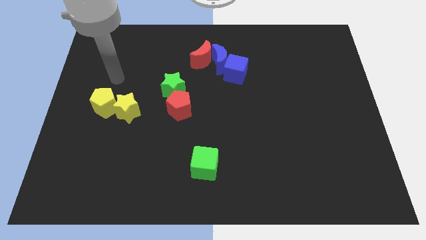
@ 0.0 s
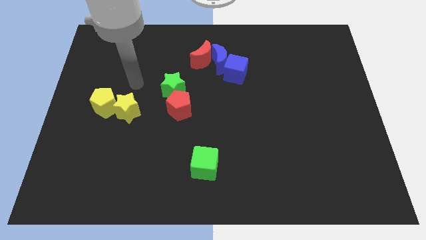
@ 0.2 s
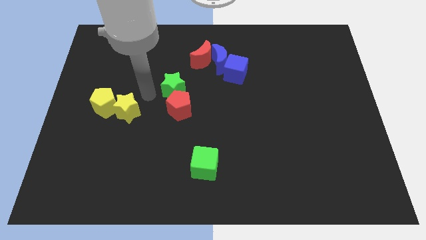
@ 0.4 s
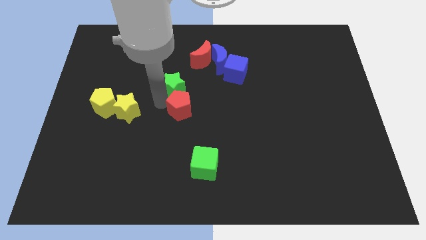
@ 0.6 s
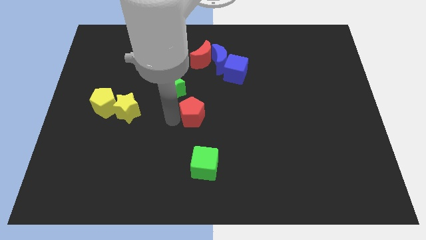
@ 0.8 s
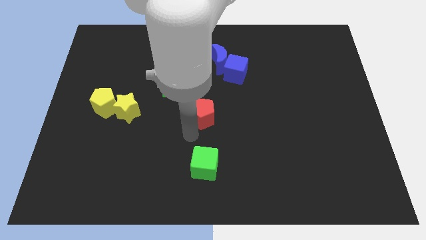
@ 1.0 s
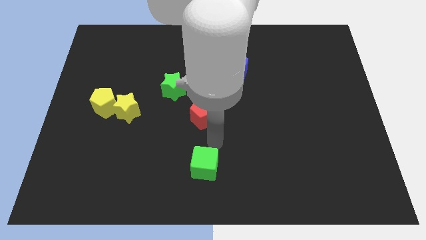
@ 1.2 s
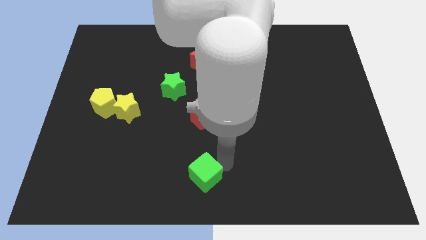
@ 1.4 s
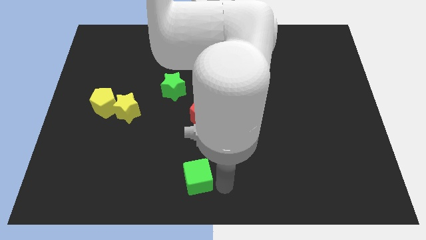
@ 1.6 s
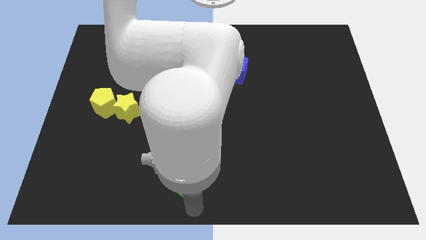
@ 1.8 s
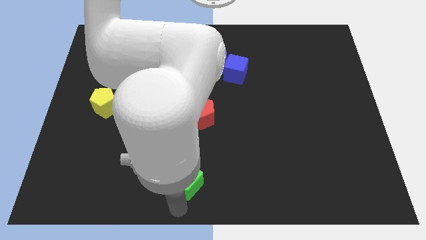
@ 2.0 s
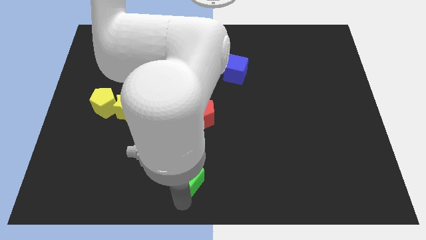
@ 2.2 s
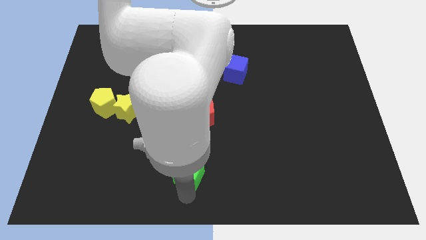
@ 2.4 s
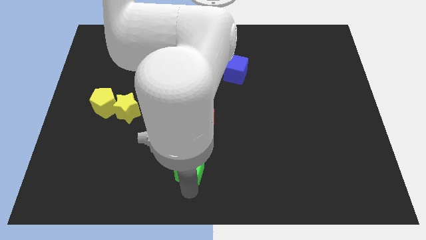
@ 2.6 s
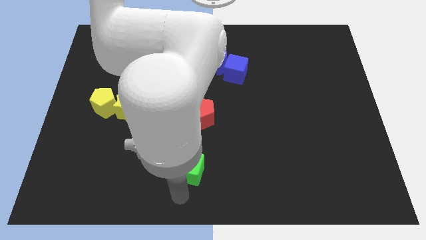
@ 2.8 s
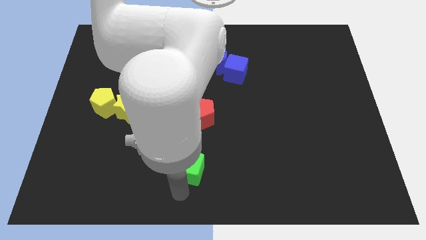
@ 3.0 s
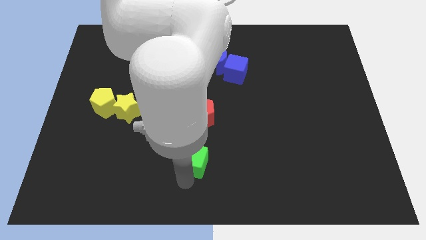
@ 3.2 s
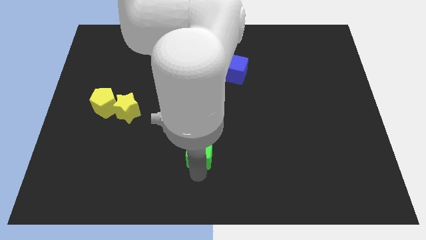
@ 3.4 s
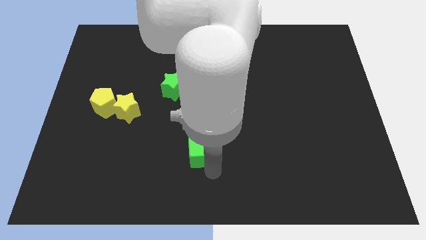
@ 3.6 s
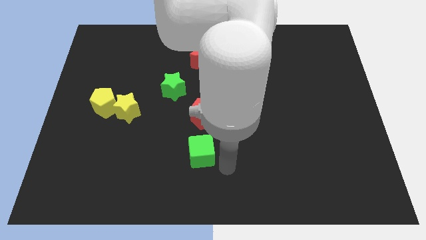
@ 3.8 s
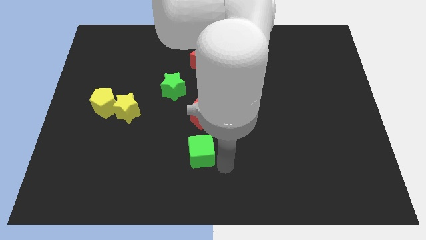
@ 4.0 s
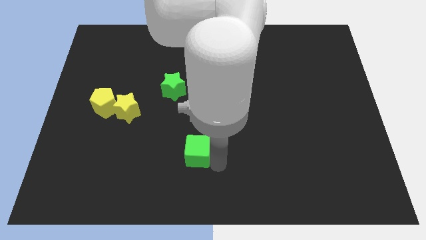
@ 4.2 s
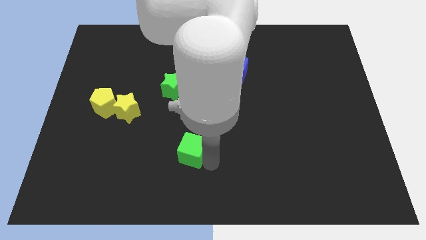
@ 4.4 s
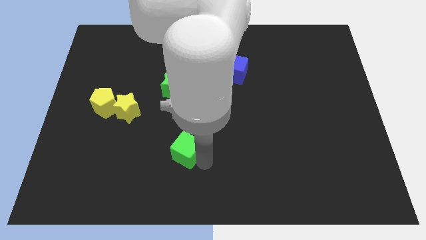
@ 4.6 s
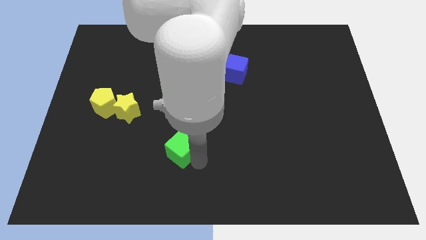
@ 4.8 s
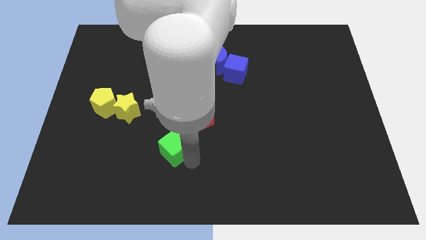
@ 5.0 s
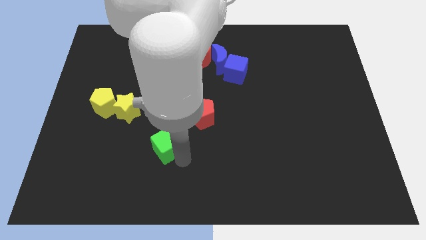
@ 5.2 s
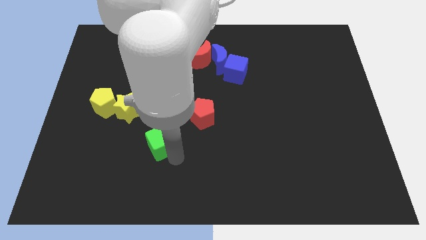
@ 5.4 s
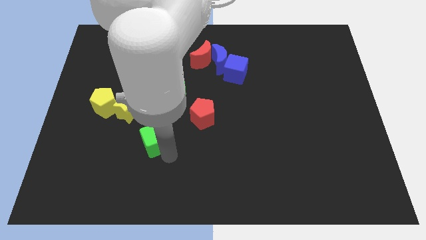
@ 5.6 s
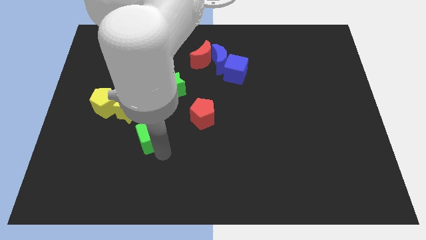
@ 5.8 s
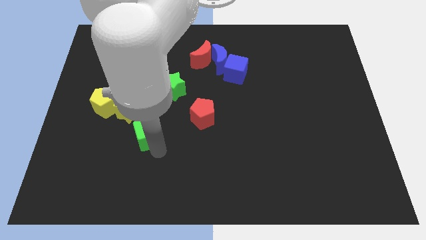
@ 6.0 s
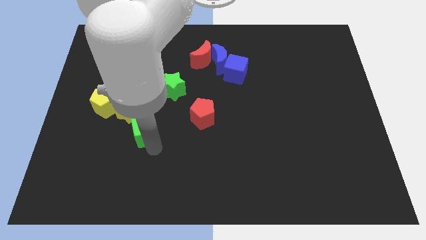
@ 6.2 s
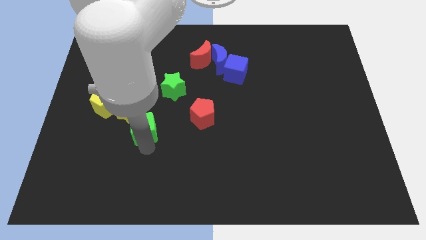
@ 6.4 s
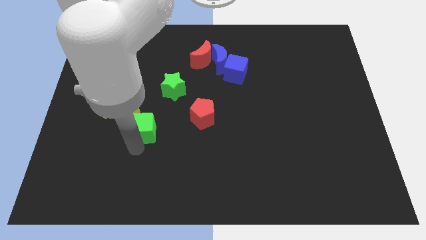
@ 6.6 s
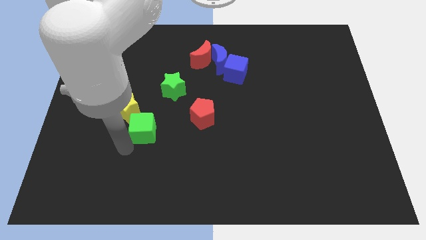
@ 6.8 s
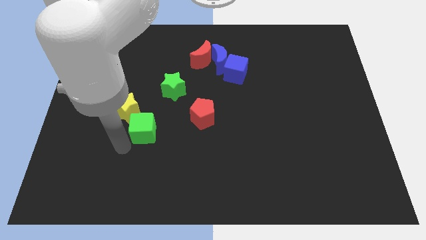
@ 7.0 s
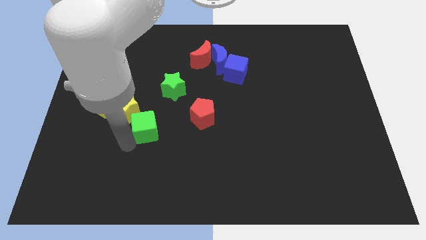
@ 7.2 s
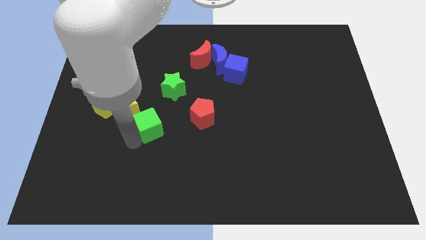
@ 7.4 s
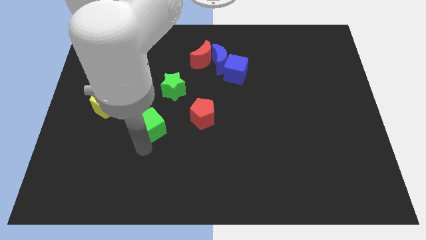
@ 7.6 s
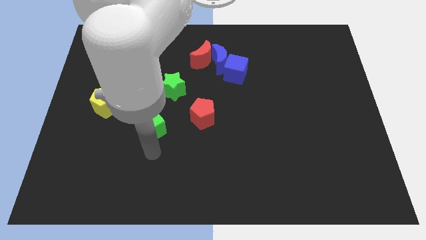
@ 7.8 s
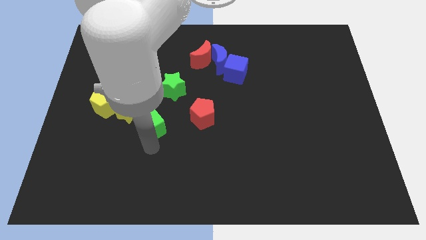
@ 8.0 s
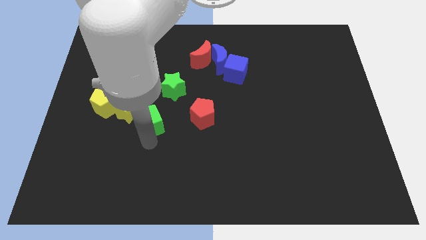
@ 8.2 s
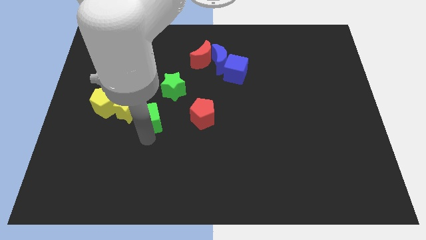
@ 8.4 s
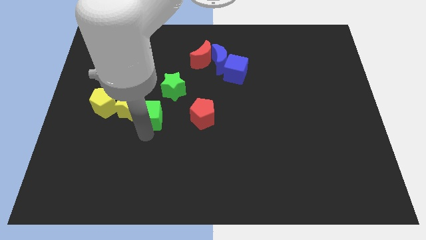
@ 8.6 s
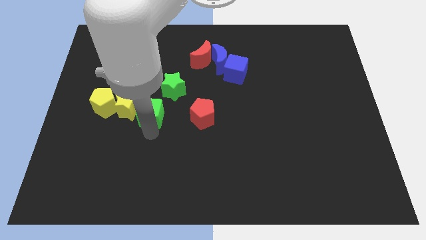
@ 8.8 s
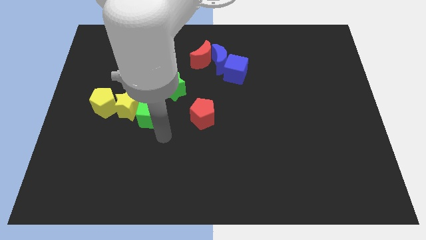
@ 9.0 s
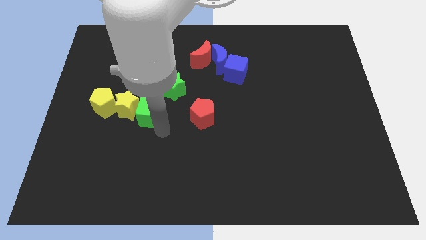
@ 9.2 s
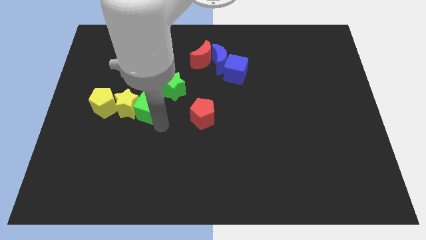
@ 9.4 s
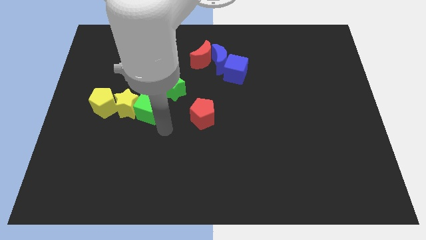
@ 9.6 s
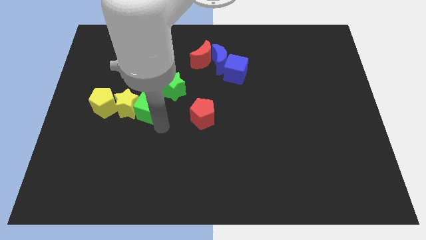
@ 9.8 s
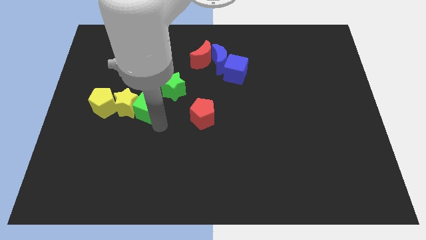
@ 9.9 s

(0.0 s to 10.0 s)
move the green cube upwards and left diagonally

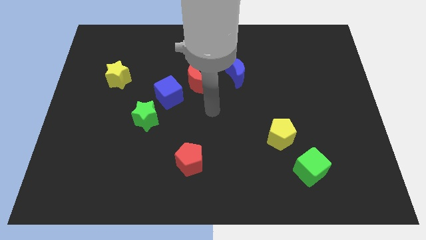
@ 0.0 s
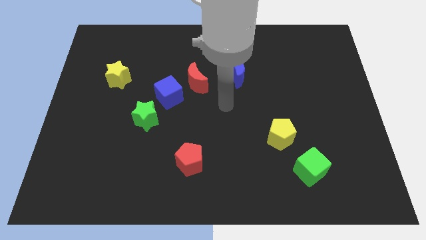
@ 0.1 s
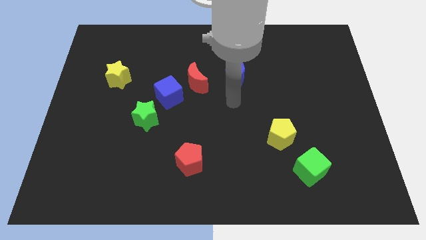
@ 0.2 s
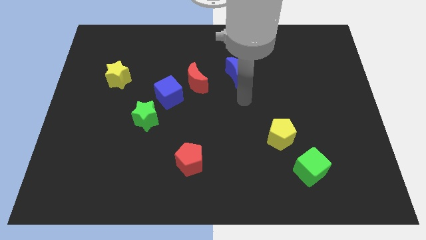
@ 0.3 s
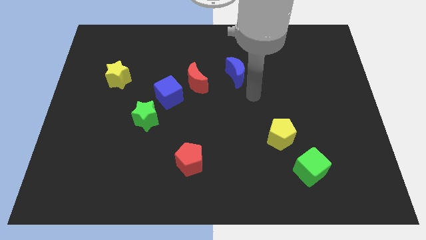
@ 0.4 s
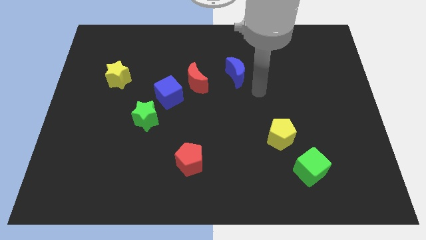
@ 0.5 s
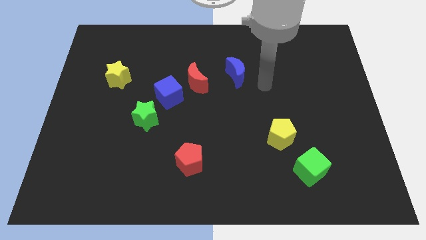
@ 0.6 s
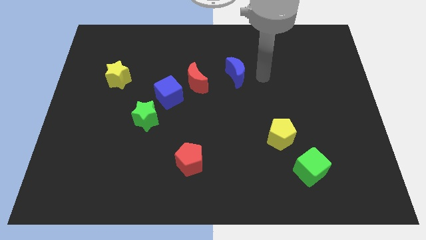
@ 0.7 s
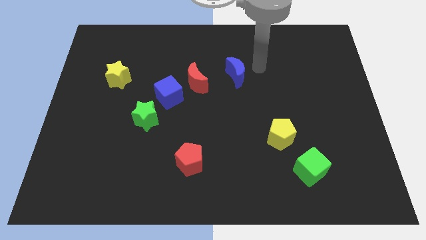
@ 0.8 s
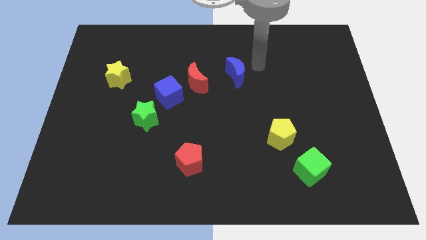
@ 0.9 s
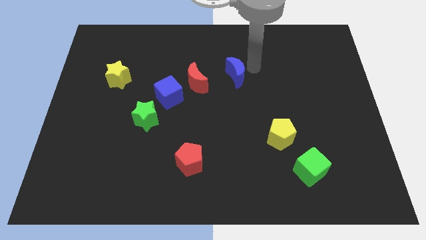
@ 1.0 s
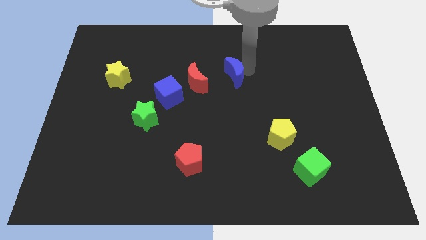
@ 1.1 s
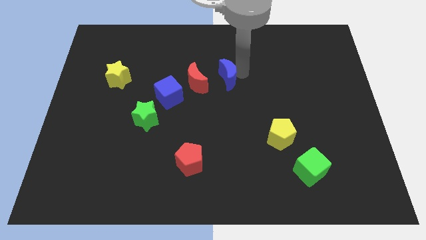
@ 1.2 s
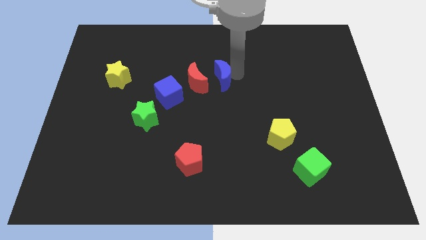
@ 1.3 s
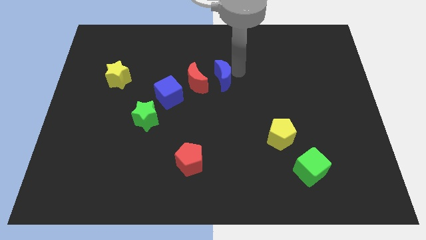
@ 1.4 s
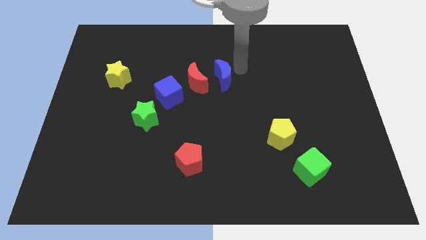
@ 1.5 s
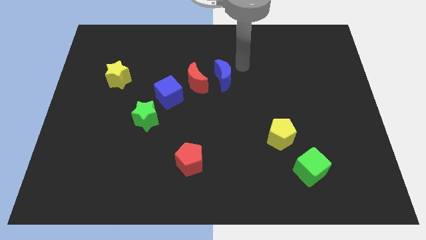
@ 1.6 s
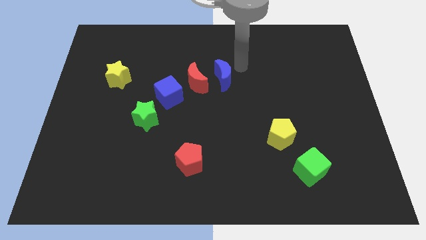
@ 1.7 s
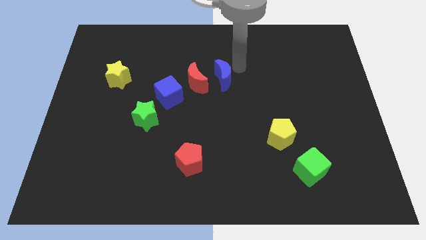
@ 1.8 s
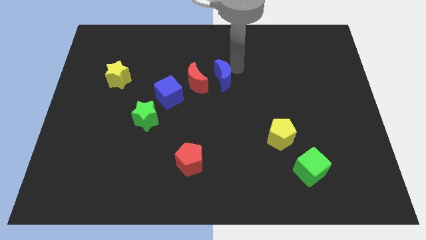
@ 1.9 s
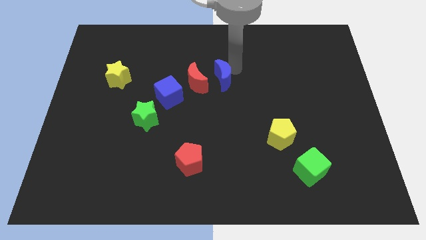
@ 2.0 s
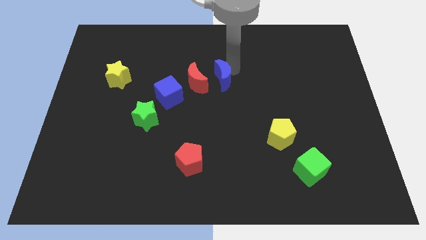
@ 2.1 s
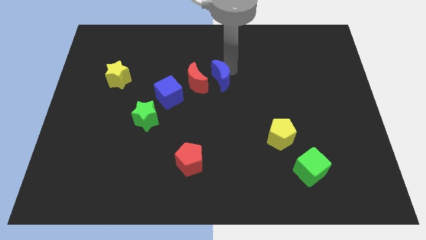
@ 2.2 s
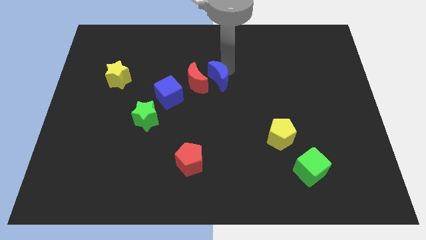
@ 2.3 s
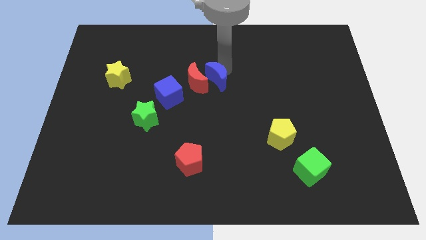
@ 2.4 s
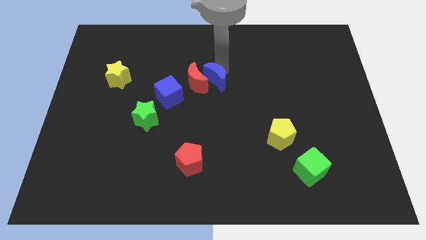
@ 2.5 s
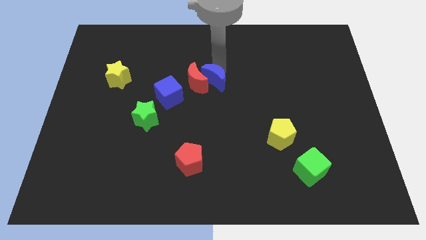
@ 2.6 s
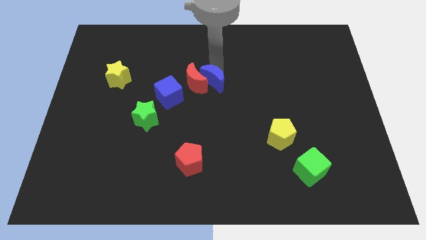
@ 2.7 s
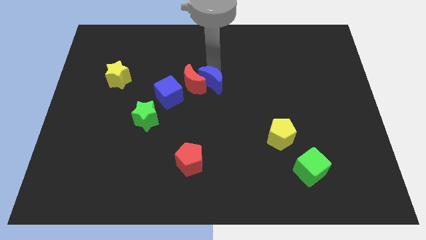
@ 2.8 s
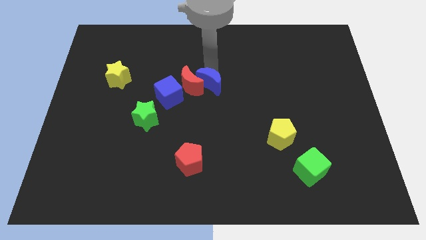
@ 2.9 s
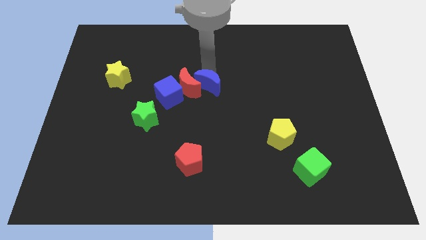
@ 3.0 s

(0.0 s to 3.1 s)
slightly push the blue moon downwards and then left

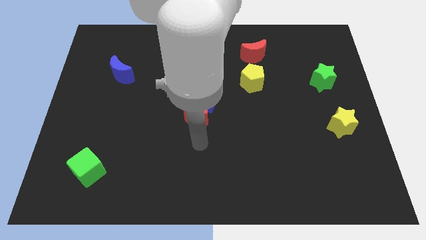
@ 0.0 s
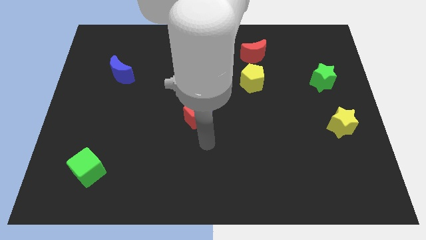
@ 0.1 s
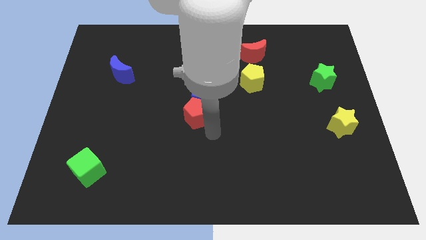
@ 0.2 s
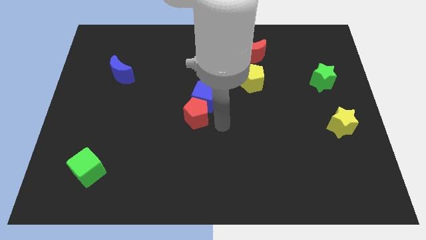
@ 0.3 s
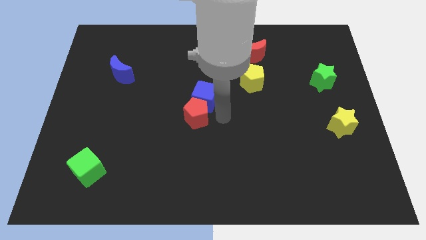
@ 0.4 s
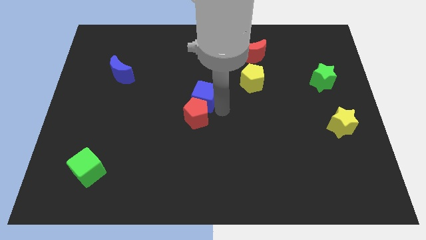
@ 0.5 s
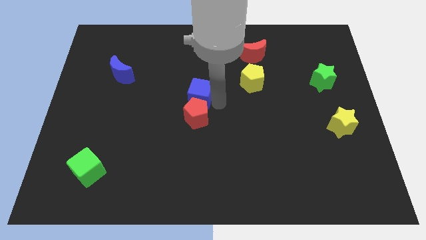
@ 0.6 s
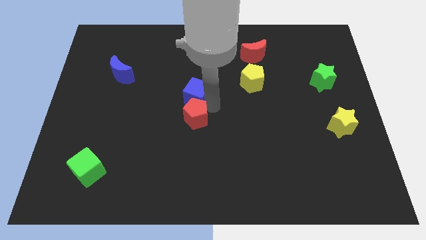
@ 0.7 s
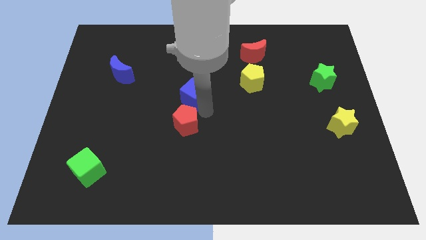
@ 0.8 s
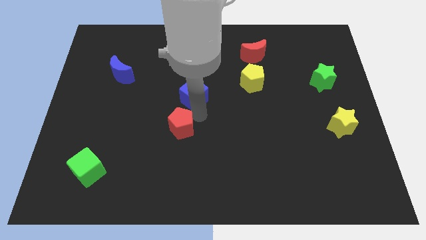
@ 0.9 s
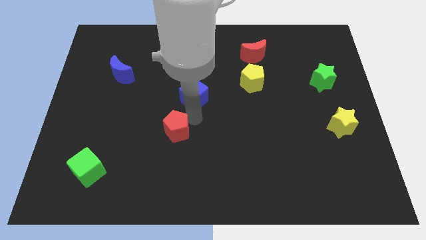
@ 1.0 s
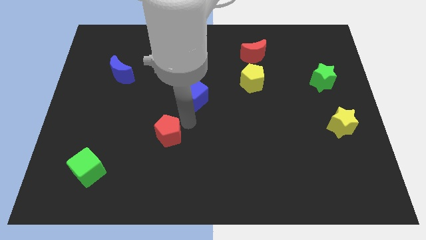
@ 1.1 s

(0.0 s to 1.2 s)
slide the red pentagon downwards and left somewhat
